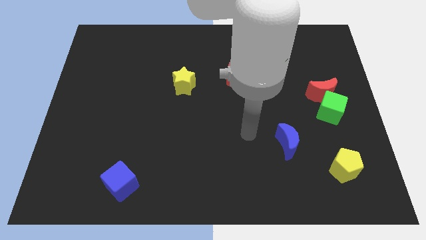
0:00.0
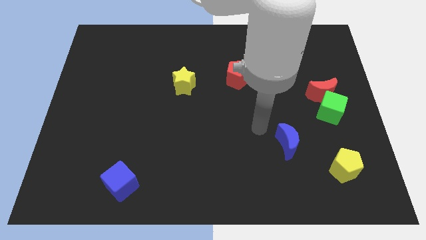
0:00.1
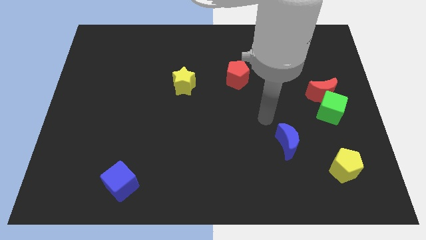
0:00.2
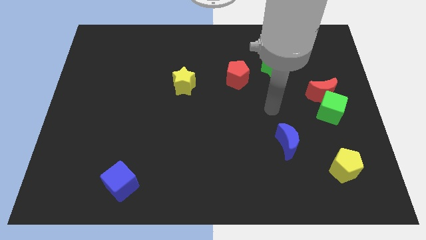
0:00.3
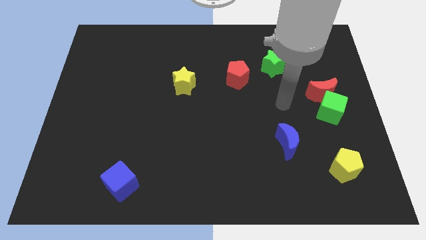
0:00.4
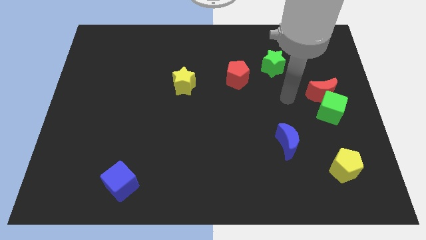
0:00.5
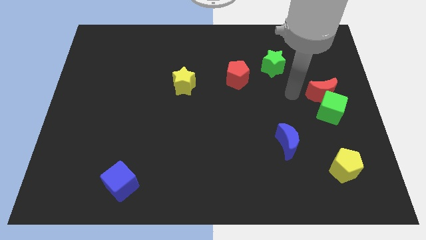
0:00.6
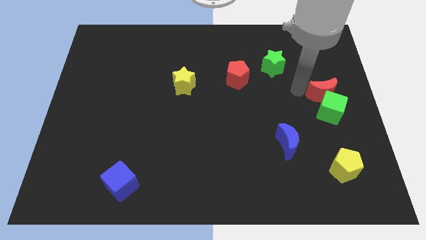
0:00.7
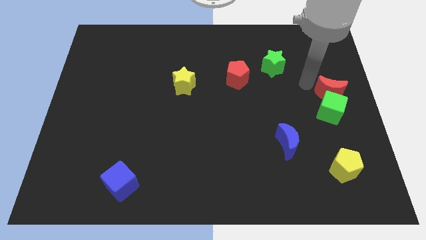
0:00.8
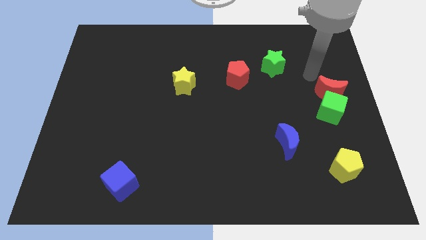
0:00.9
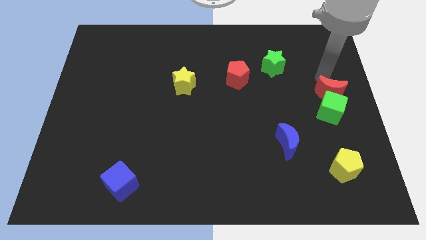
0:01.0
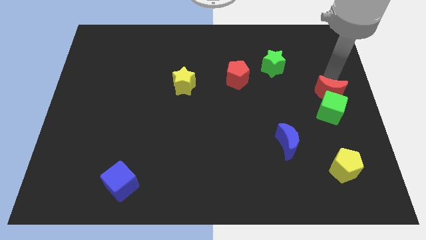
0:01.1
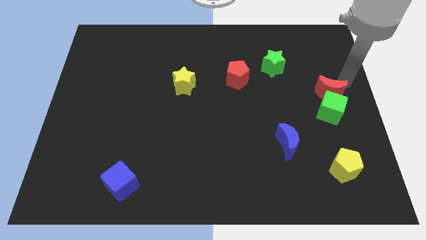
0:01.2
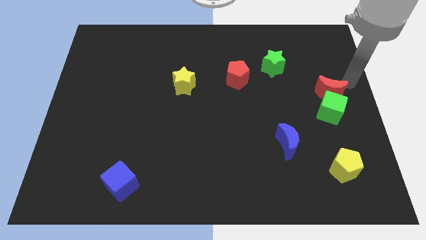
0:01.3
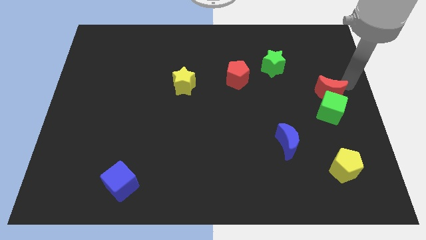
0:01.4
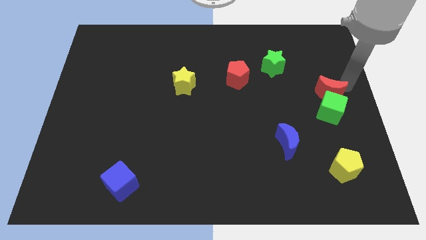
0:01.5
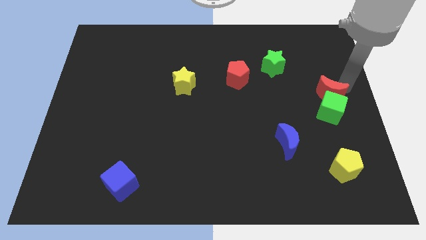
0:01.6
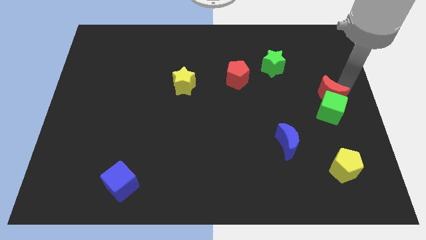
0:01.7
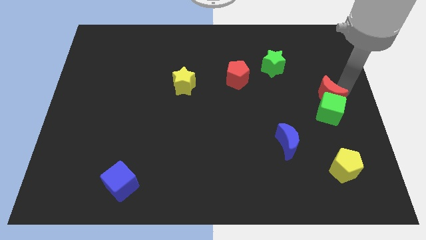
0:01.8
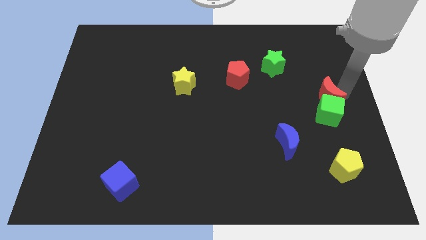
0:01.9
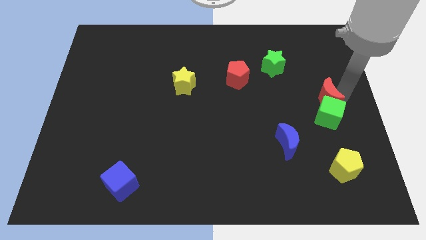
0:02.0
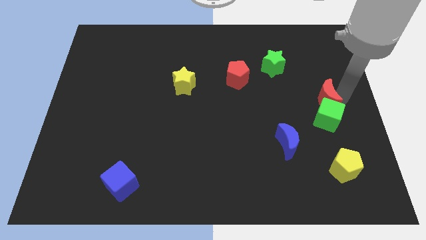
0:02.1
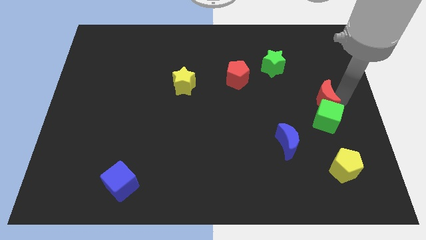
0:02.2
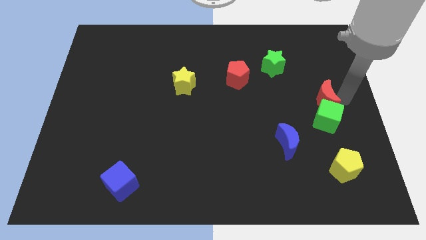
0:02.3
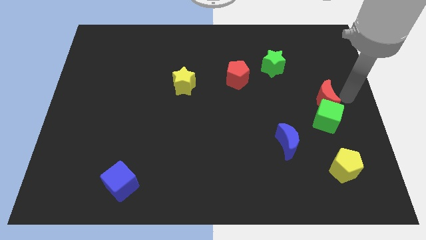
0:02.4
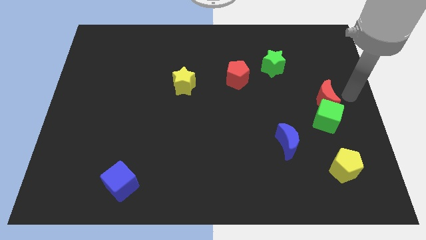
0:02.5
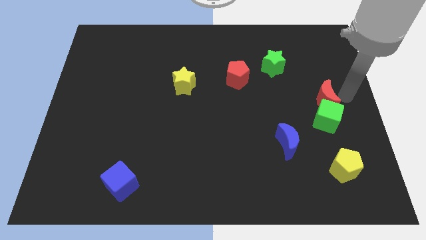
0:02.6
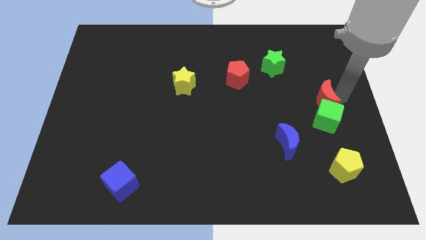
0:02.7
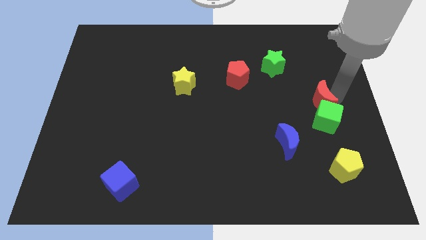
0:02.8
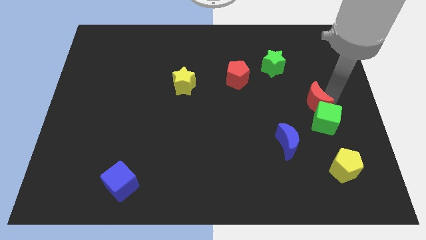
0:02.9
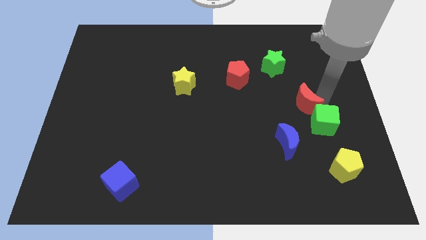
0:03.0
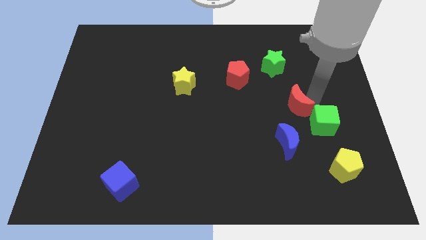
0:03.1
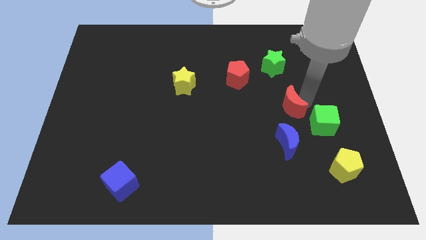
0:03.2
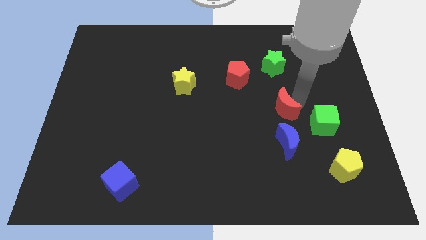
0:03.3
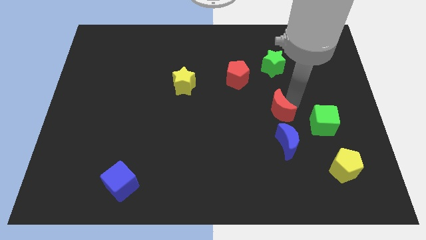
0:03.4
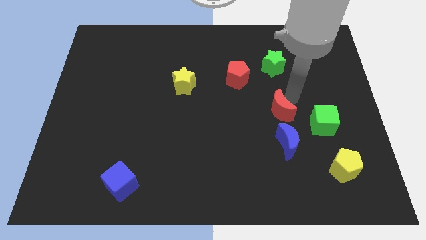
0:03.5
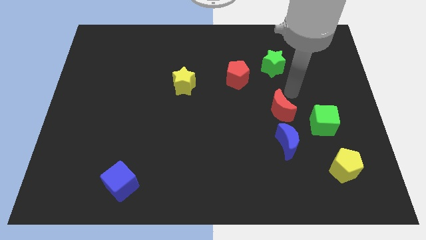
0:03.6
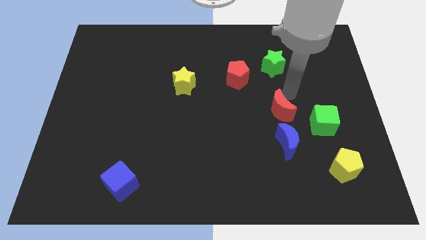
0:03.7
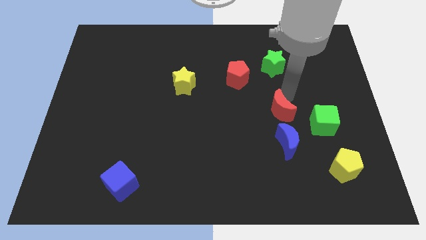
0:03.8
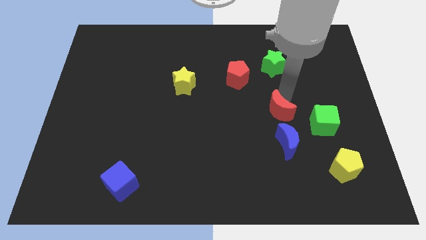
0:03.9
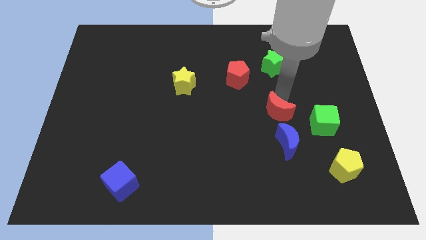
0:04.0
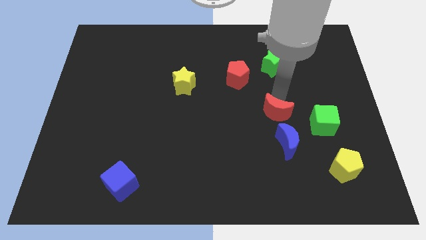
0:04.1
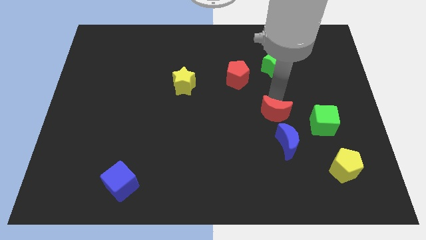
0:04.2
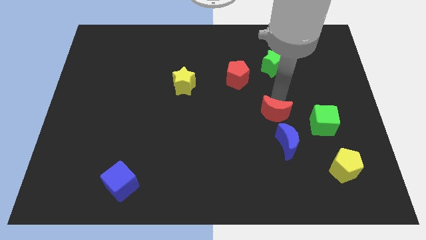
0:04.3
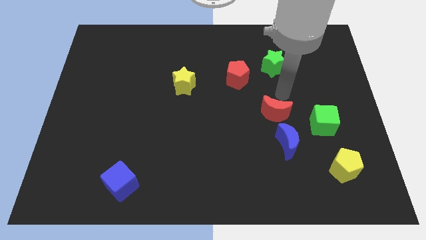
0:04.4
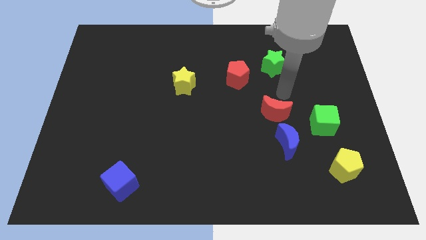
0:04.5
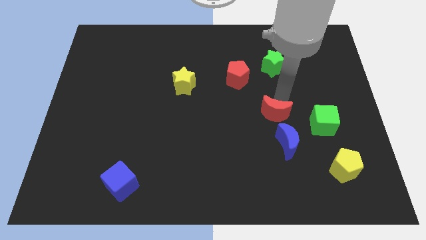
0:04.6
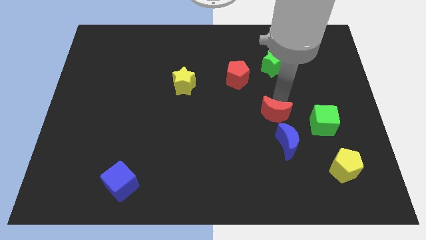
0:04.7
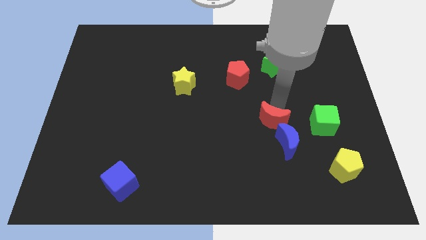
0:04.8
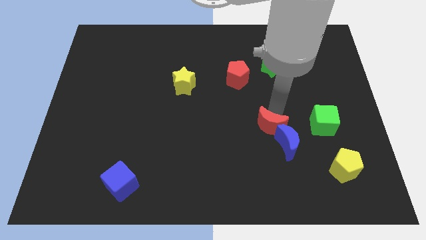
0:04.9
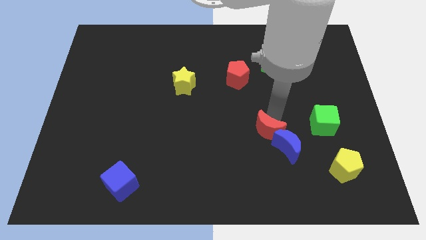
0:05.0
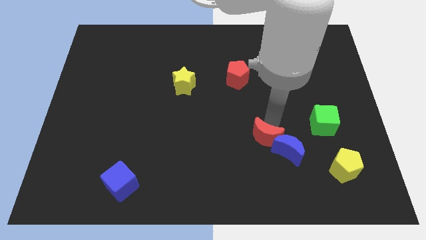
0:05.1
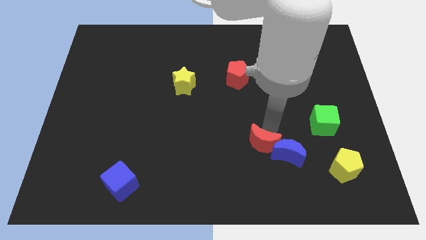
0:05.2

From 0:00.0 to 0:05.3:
push the red moon down and to the left diagonally

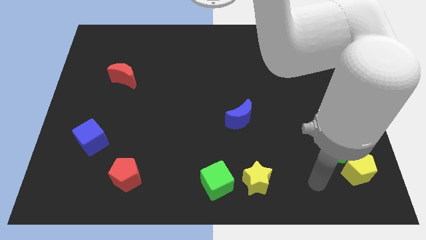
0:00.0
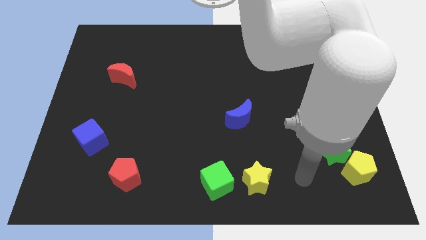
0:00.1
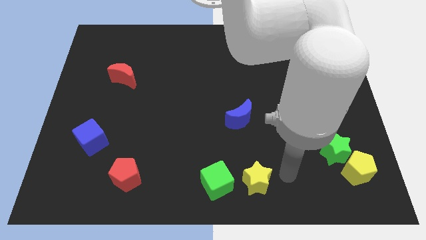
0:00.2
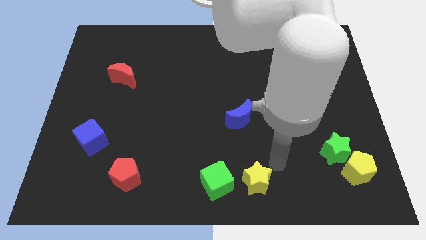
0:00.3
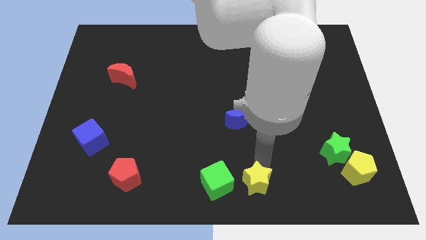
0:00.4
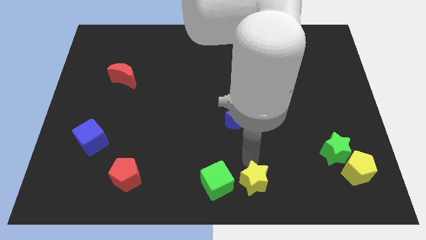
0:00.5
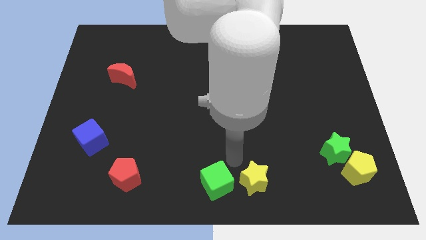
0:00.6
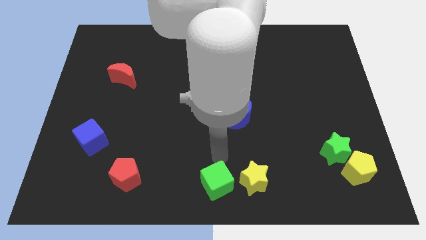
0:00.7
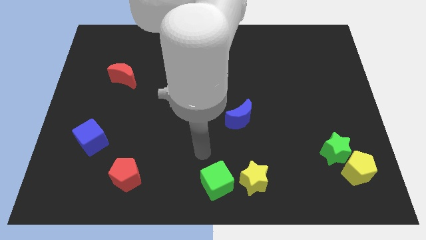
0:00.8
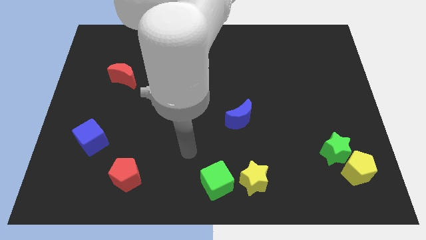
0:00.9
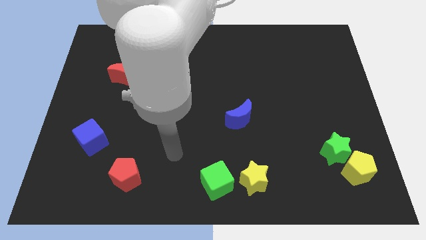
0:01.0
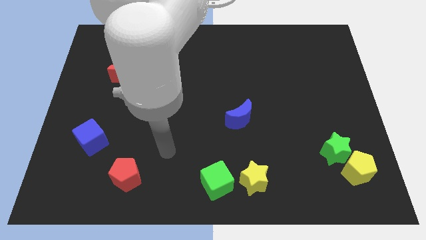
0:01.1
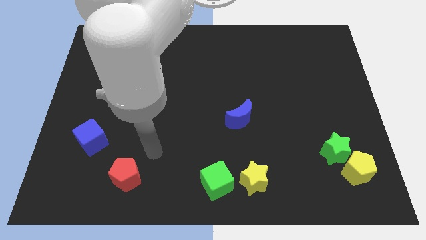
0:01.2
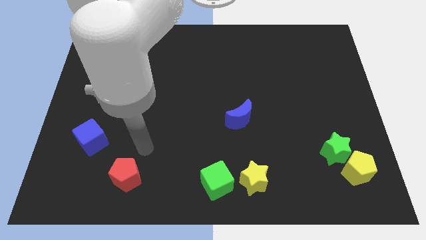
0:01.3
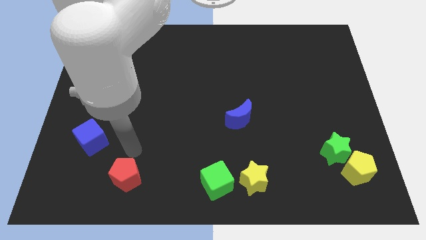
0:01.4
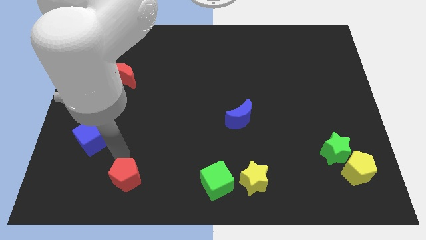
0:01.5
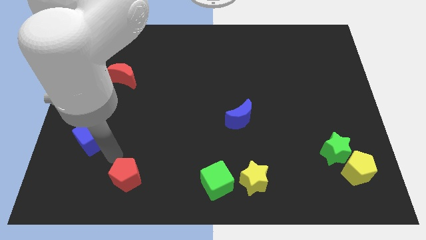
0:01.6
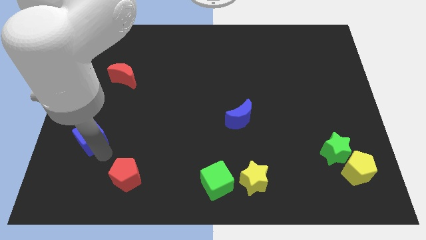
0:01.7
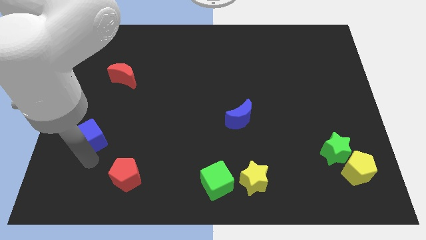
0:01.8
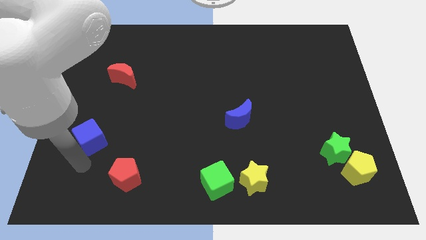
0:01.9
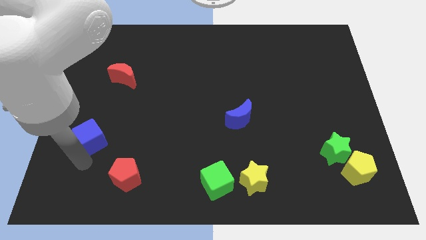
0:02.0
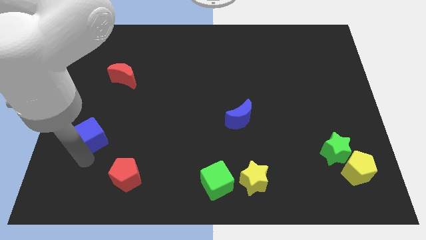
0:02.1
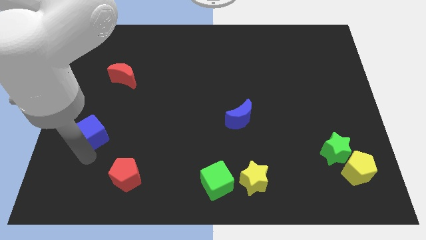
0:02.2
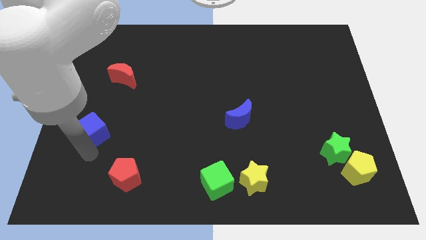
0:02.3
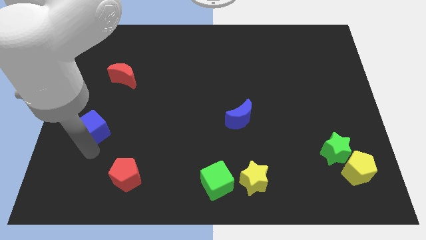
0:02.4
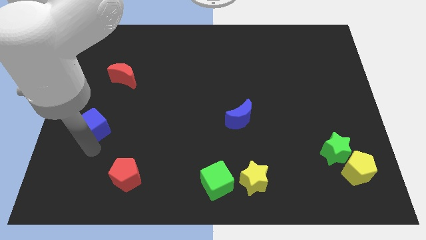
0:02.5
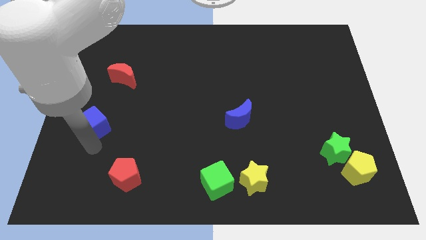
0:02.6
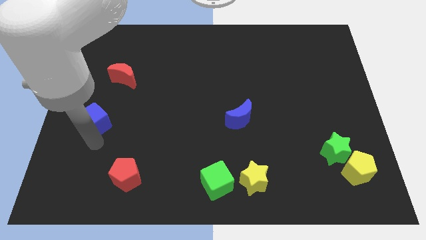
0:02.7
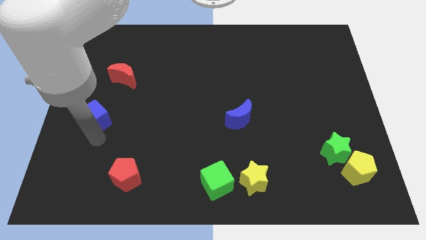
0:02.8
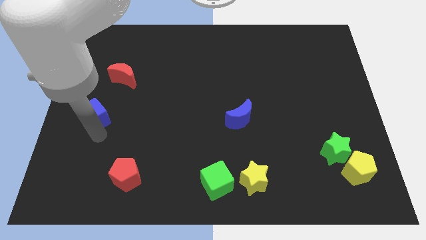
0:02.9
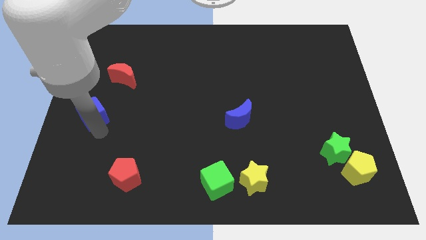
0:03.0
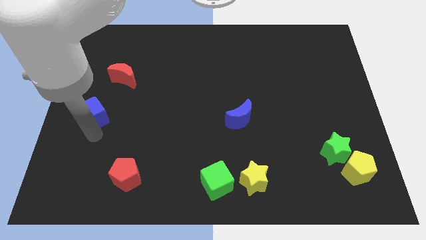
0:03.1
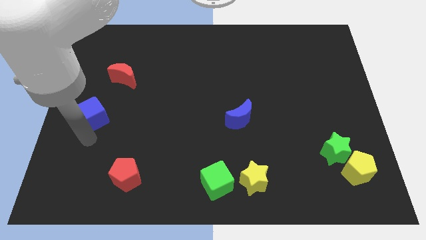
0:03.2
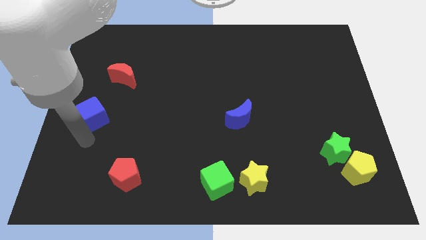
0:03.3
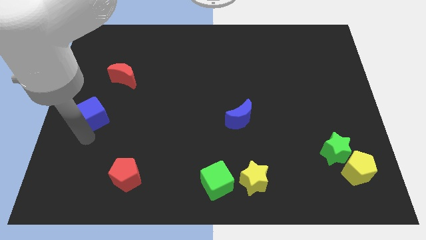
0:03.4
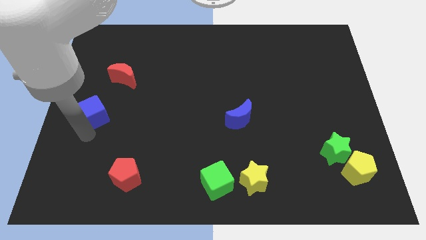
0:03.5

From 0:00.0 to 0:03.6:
move the blue cube a little bit upwards
